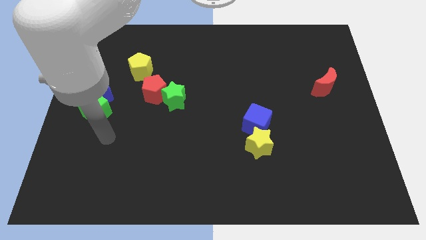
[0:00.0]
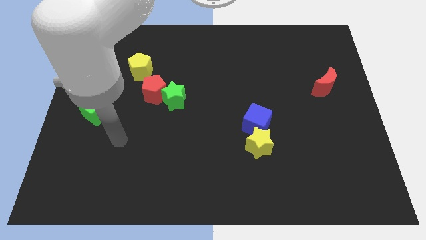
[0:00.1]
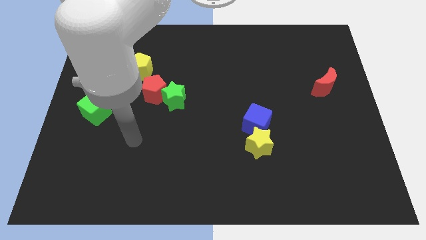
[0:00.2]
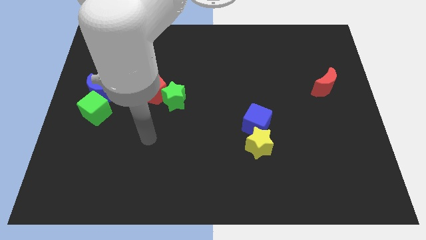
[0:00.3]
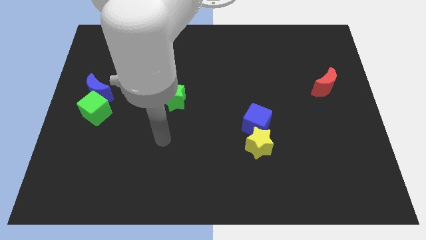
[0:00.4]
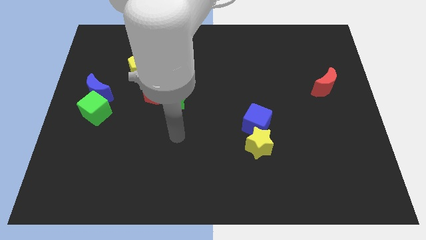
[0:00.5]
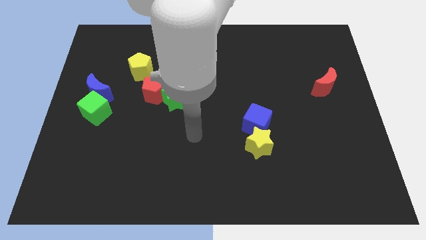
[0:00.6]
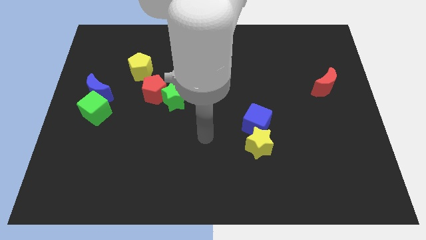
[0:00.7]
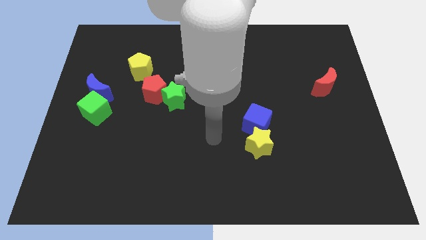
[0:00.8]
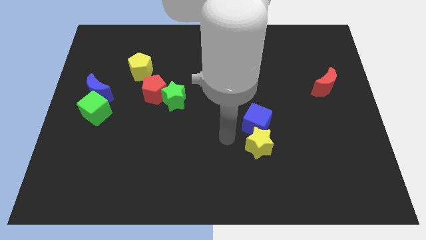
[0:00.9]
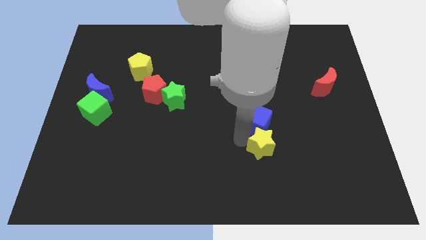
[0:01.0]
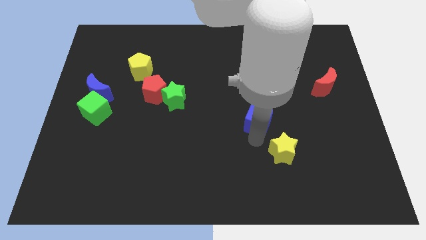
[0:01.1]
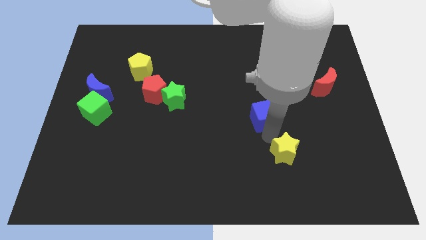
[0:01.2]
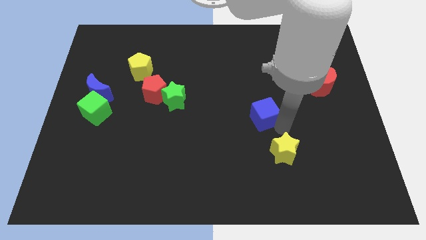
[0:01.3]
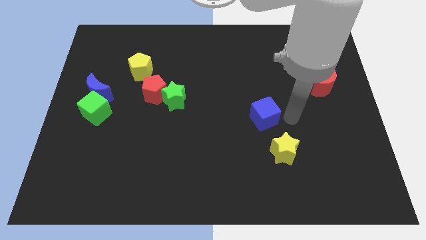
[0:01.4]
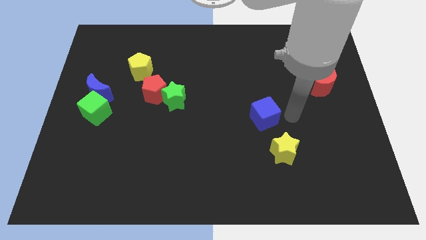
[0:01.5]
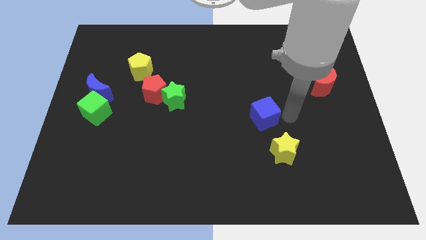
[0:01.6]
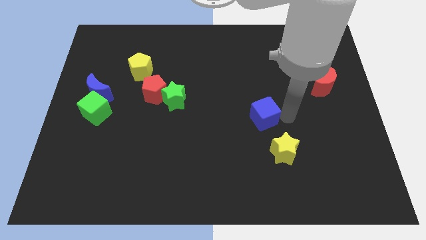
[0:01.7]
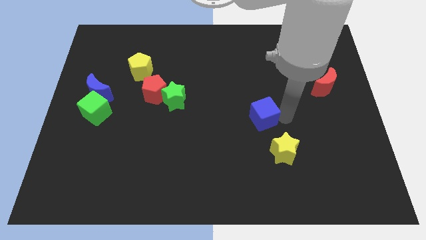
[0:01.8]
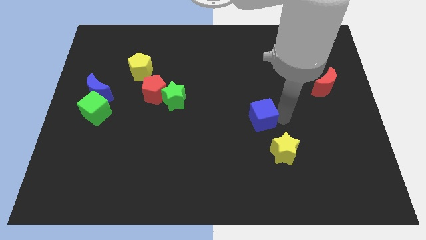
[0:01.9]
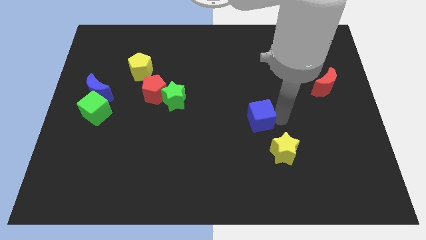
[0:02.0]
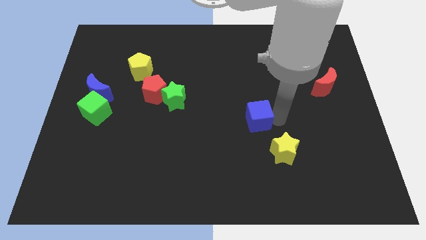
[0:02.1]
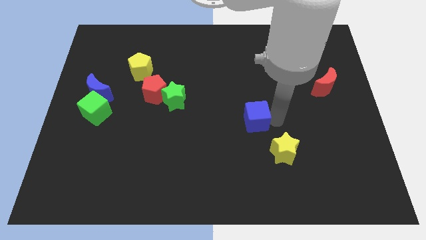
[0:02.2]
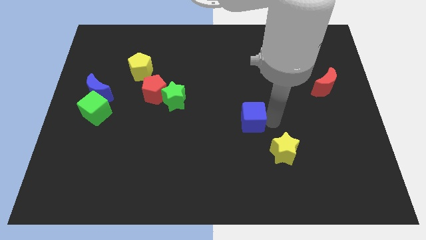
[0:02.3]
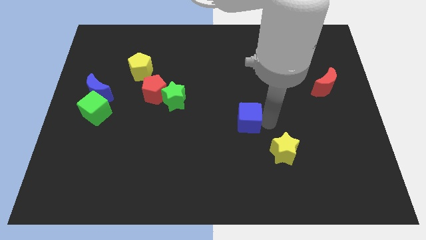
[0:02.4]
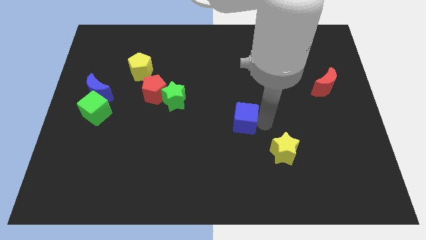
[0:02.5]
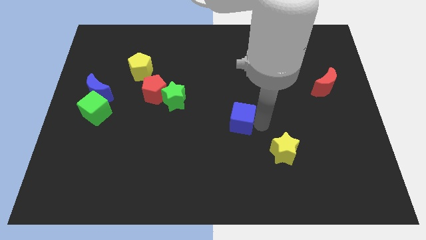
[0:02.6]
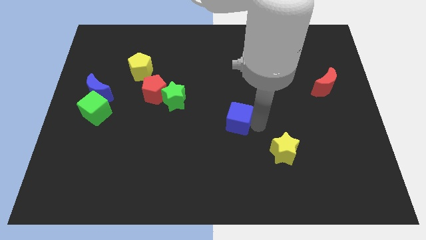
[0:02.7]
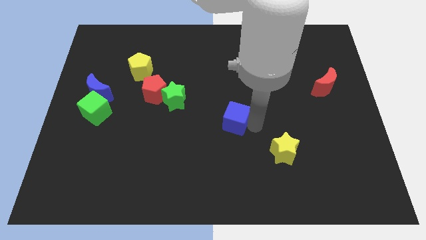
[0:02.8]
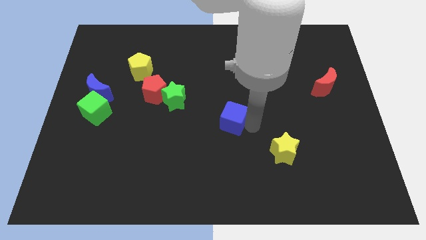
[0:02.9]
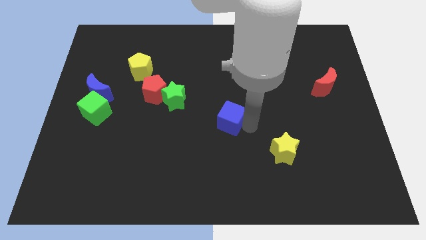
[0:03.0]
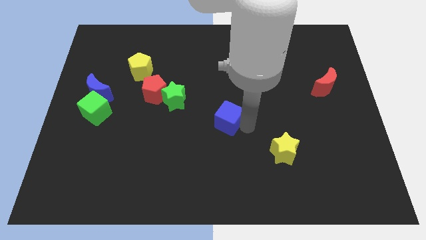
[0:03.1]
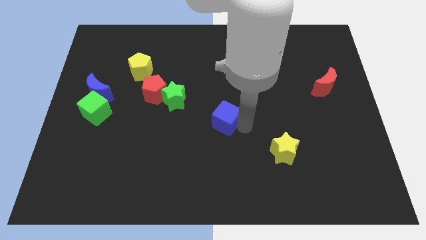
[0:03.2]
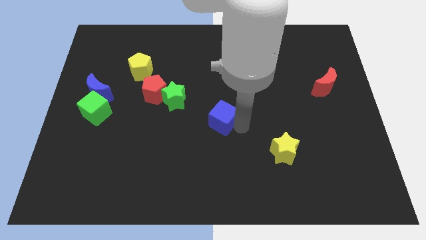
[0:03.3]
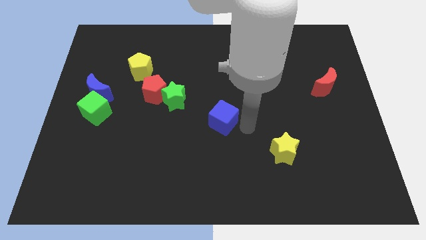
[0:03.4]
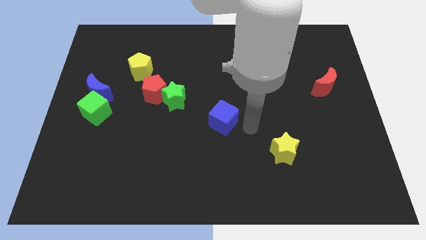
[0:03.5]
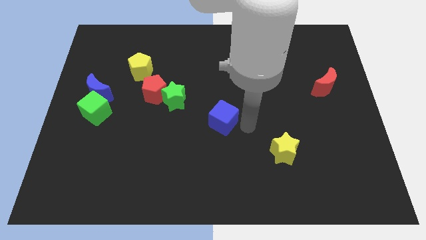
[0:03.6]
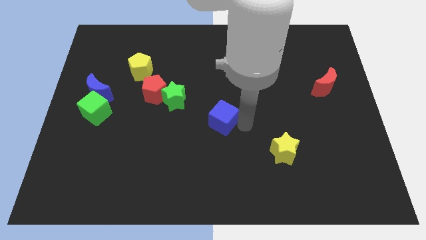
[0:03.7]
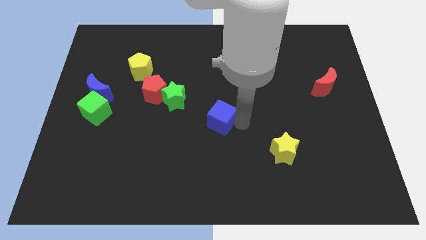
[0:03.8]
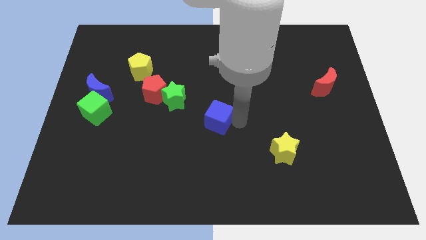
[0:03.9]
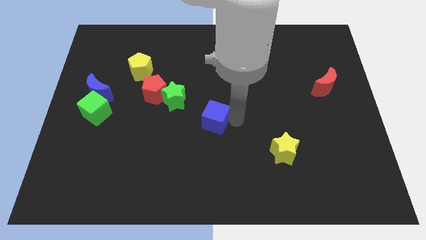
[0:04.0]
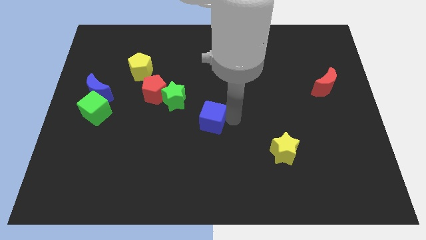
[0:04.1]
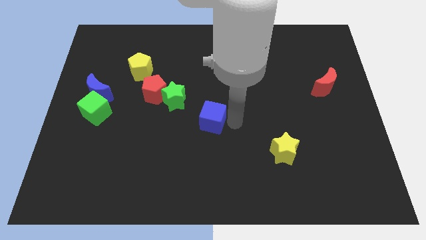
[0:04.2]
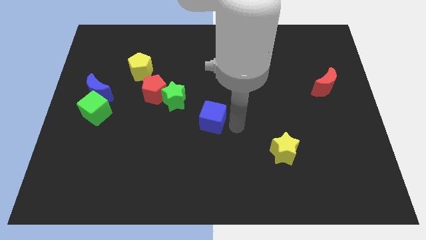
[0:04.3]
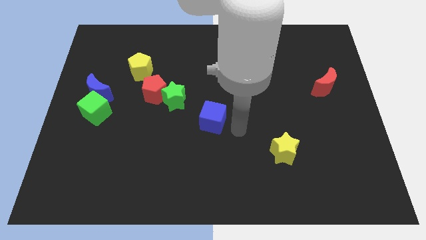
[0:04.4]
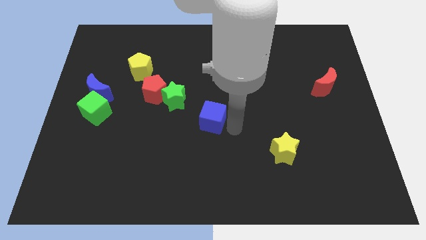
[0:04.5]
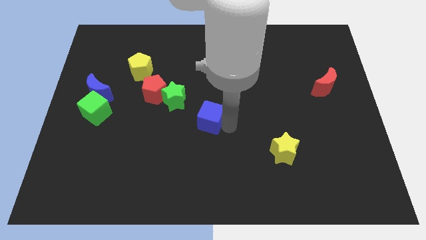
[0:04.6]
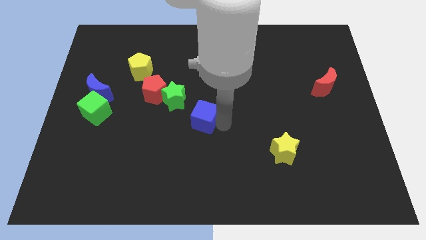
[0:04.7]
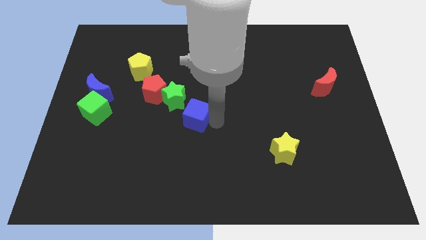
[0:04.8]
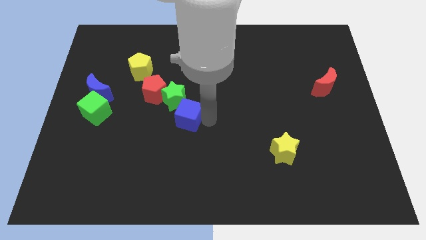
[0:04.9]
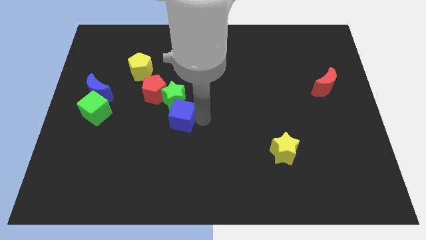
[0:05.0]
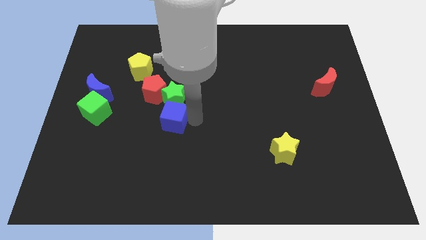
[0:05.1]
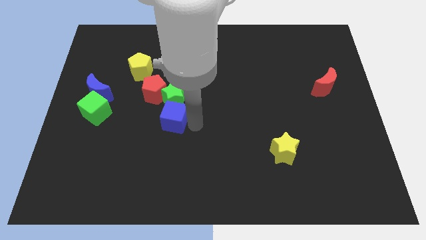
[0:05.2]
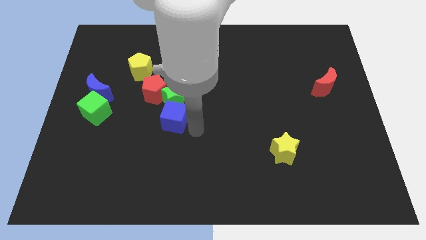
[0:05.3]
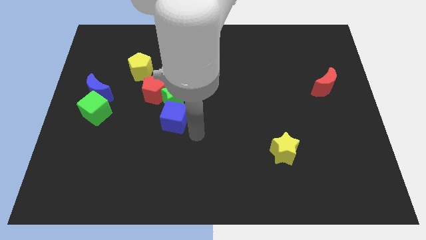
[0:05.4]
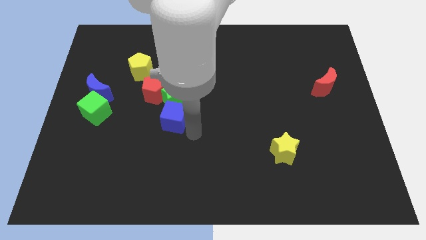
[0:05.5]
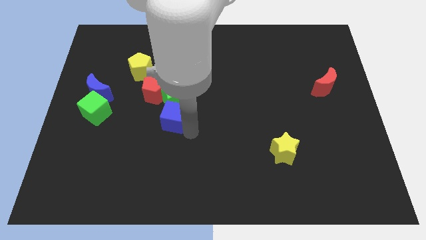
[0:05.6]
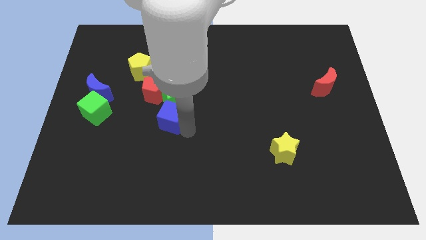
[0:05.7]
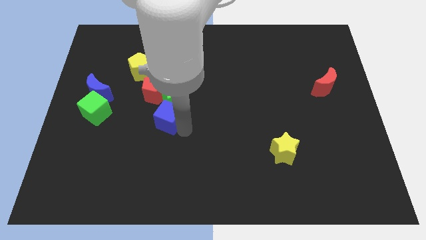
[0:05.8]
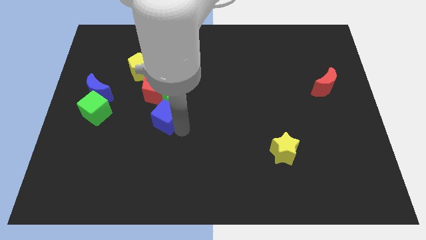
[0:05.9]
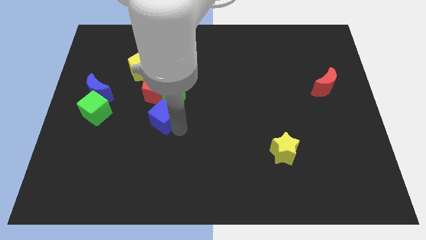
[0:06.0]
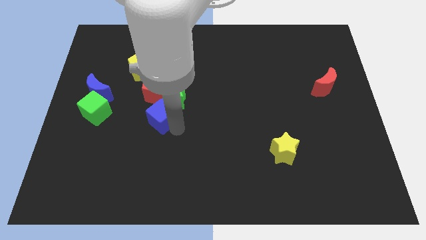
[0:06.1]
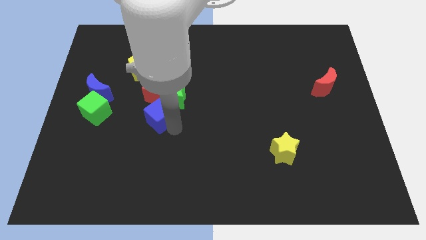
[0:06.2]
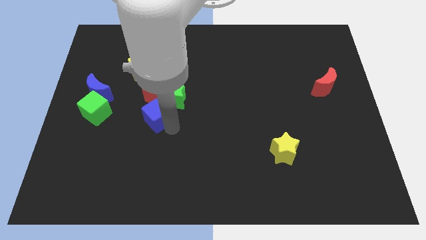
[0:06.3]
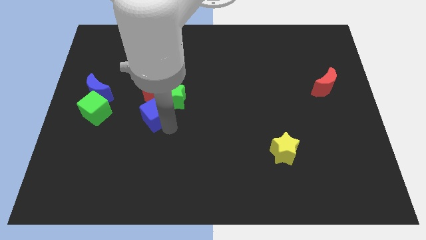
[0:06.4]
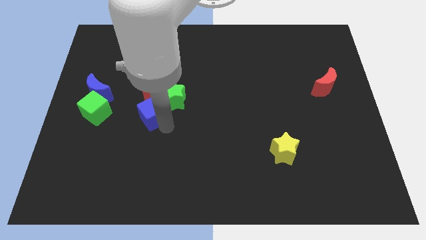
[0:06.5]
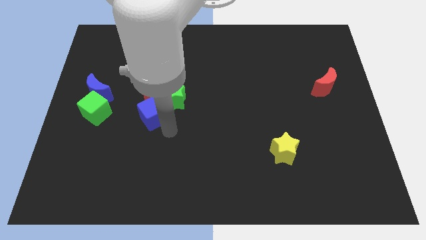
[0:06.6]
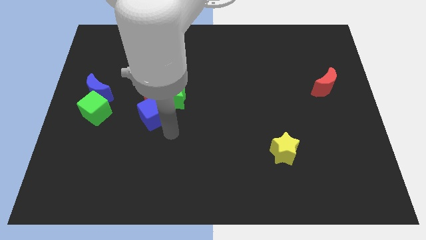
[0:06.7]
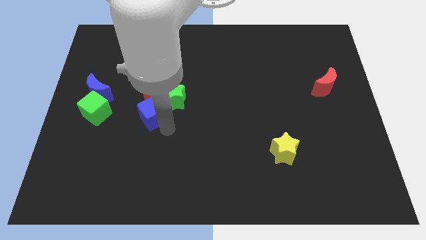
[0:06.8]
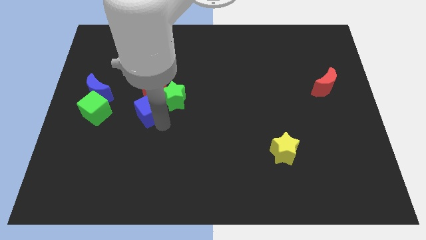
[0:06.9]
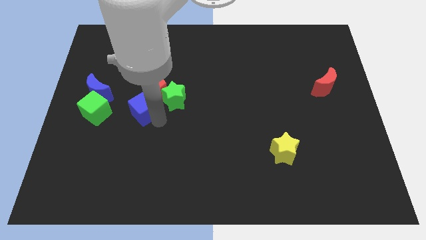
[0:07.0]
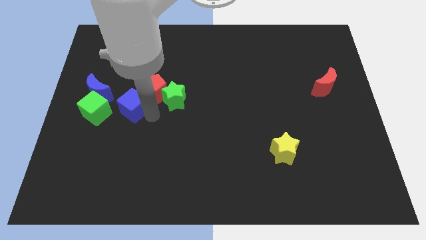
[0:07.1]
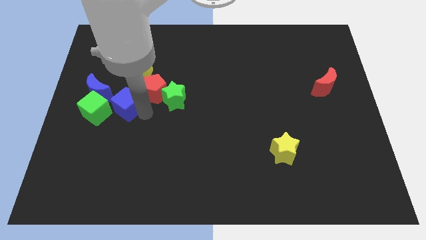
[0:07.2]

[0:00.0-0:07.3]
slide the blue cube to the top right of the green cube
